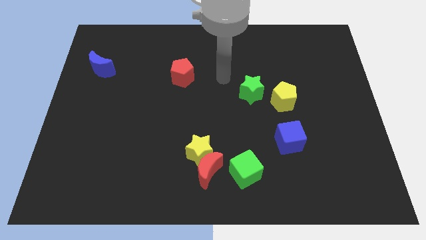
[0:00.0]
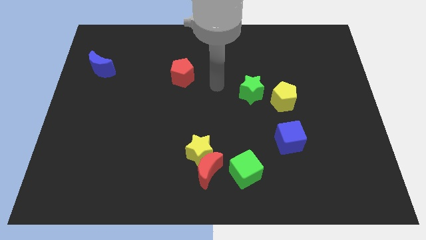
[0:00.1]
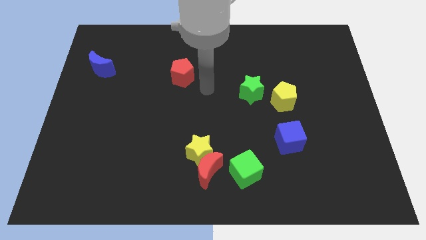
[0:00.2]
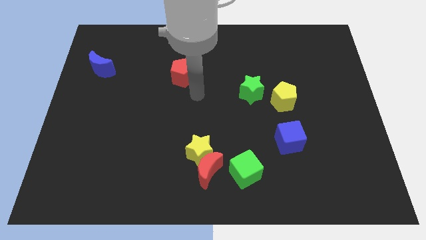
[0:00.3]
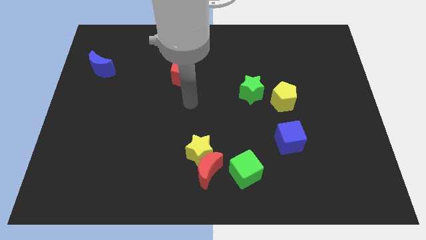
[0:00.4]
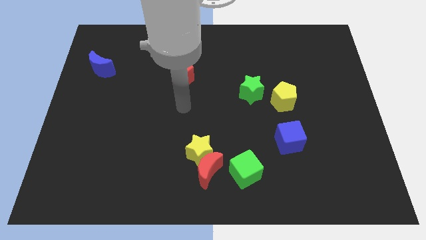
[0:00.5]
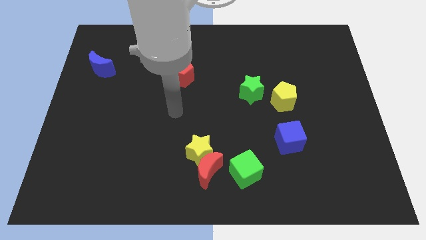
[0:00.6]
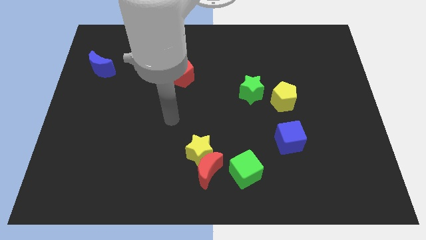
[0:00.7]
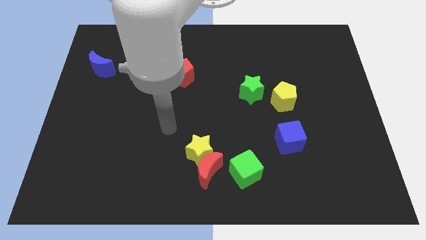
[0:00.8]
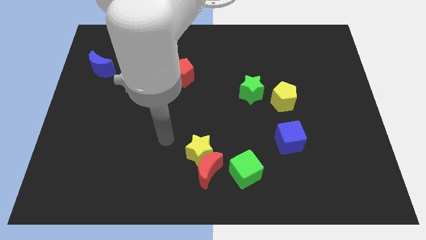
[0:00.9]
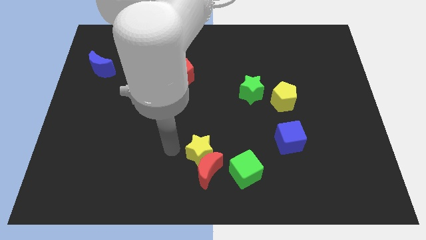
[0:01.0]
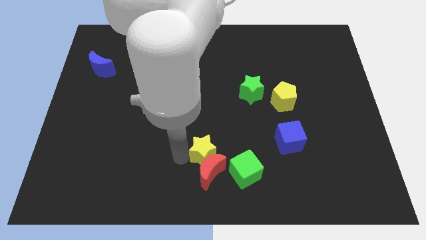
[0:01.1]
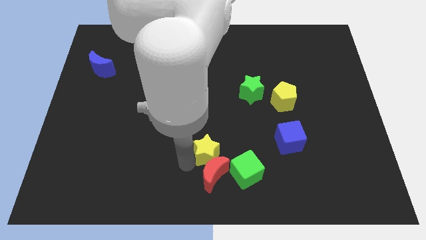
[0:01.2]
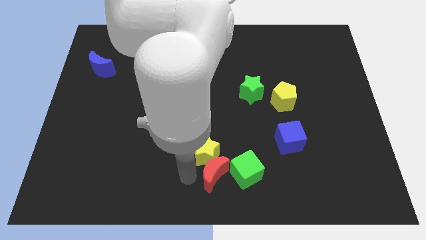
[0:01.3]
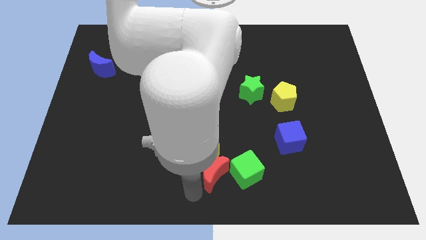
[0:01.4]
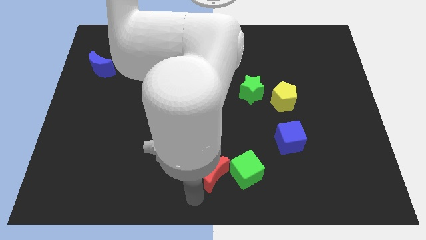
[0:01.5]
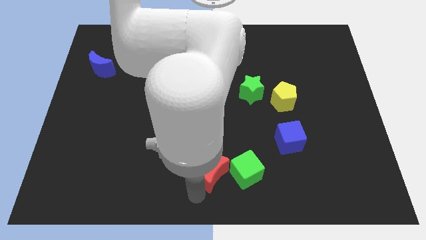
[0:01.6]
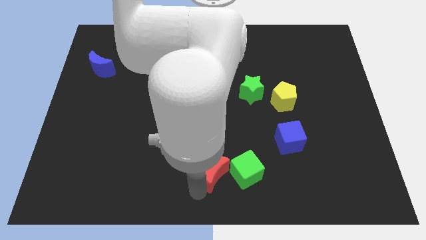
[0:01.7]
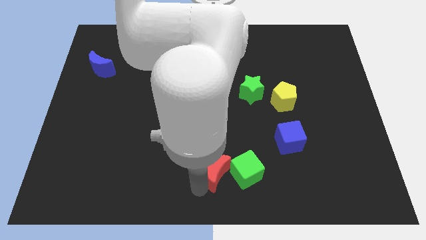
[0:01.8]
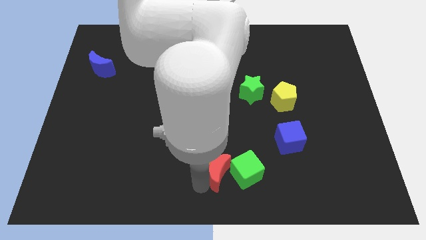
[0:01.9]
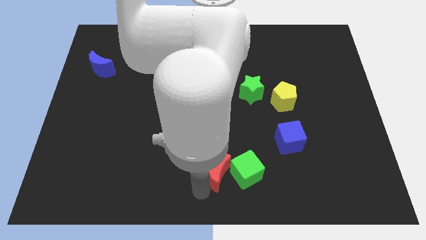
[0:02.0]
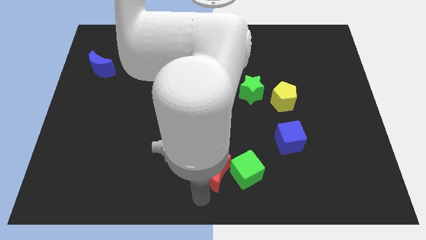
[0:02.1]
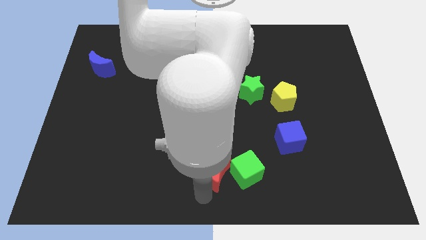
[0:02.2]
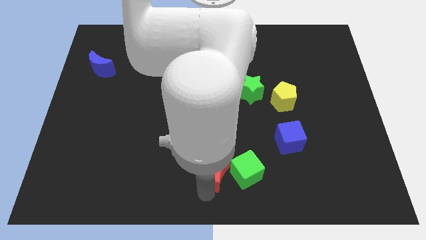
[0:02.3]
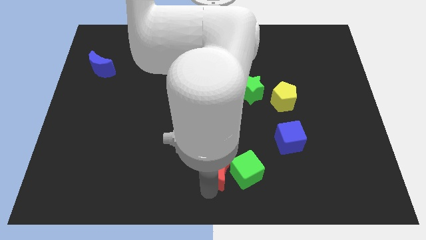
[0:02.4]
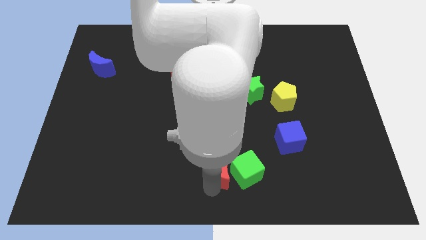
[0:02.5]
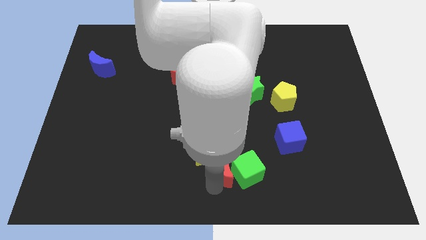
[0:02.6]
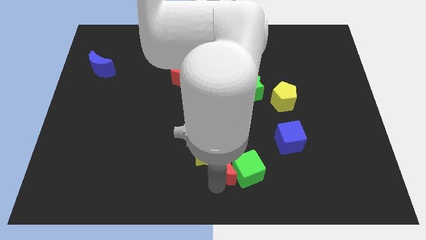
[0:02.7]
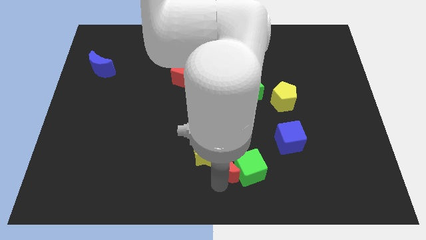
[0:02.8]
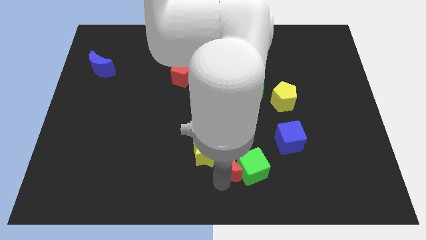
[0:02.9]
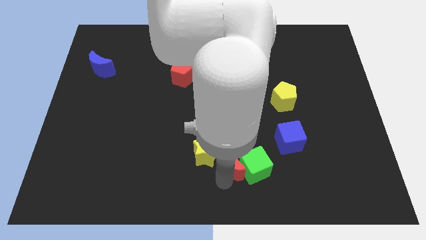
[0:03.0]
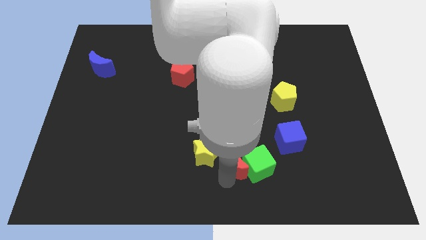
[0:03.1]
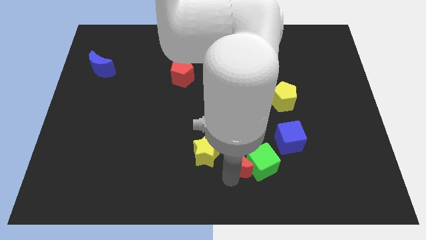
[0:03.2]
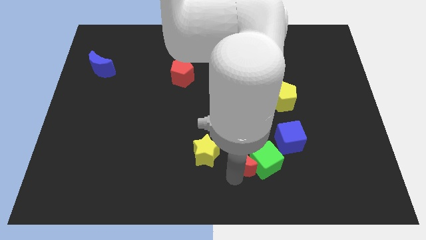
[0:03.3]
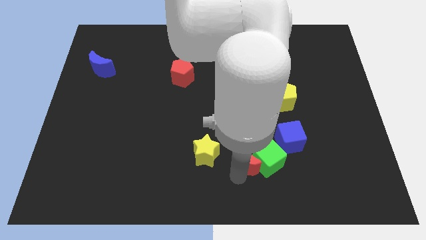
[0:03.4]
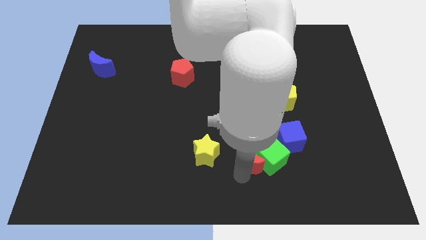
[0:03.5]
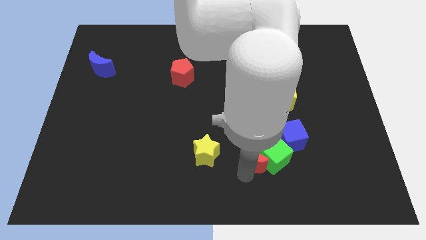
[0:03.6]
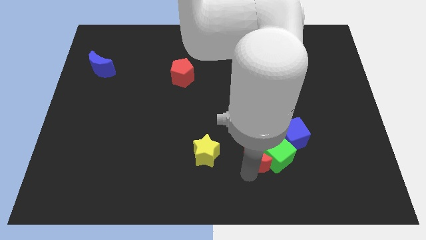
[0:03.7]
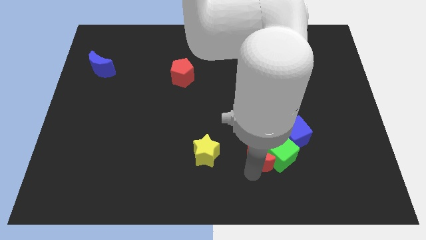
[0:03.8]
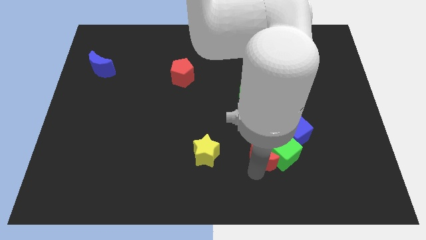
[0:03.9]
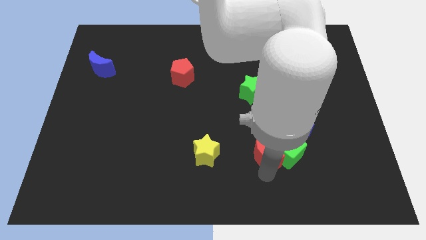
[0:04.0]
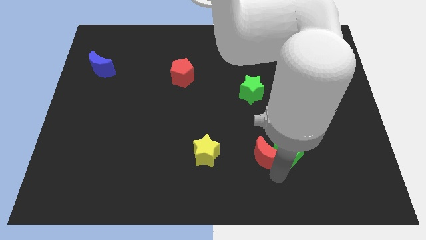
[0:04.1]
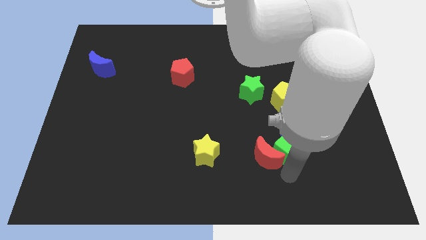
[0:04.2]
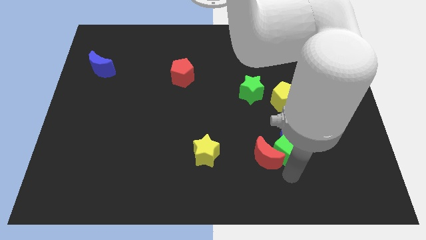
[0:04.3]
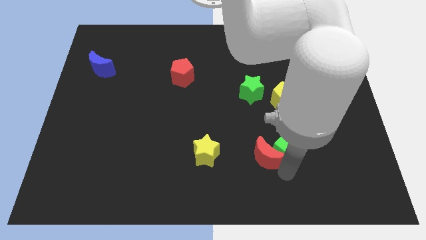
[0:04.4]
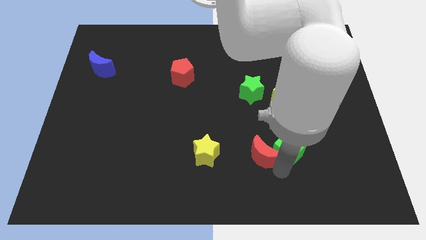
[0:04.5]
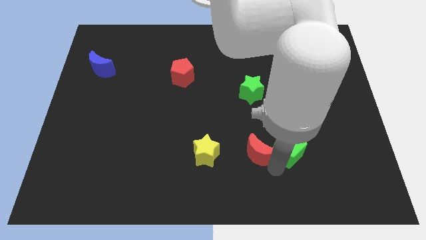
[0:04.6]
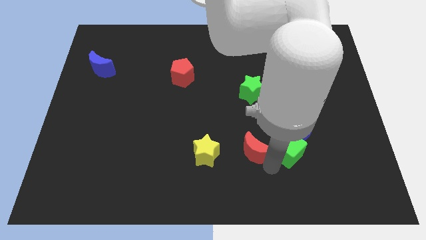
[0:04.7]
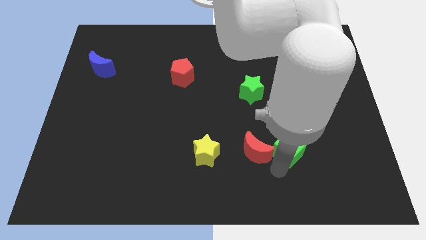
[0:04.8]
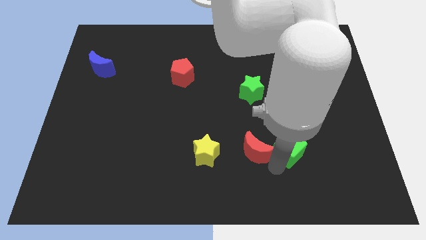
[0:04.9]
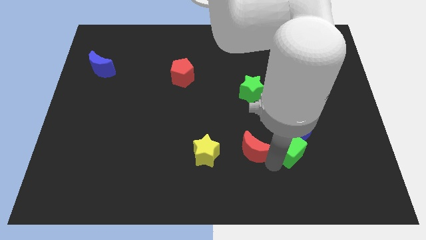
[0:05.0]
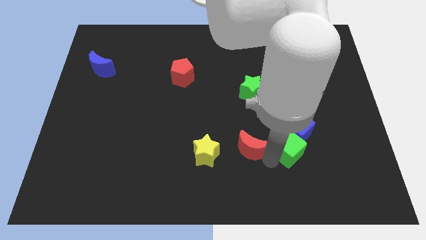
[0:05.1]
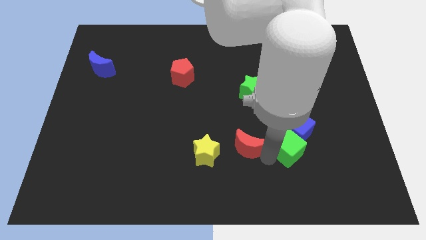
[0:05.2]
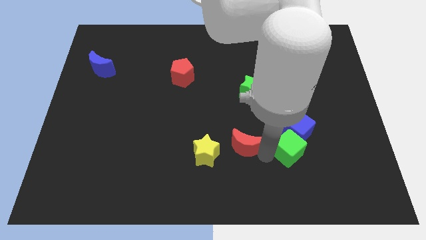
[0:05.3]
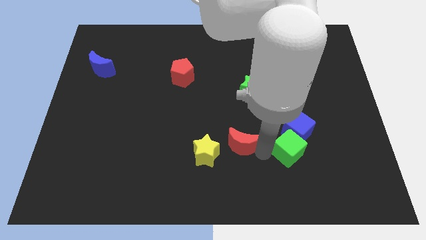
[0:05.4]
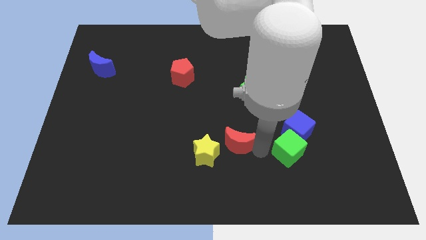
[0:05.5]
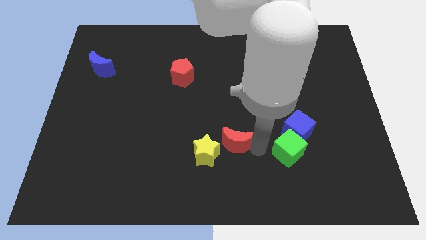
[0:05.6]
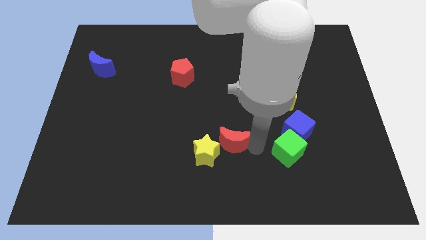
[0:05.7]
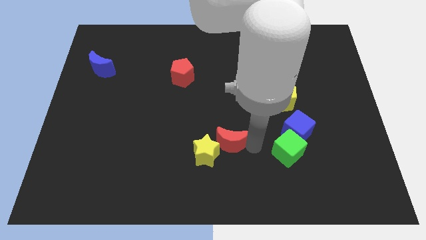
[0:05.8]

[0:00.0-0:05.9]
put the red moon to the middle

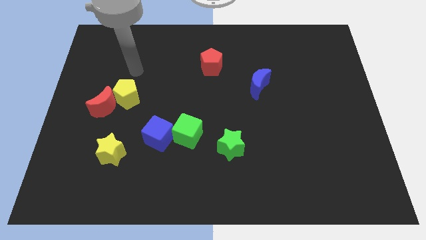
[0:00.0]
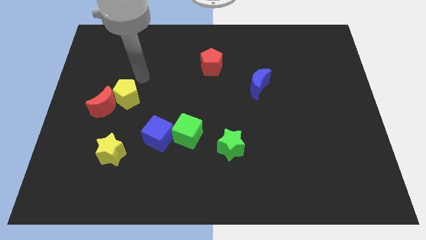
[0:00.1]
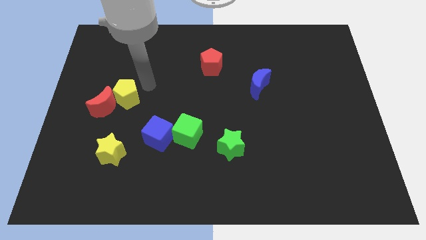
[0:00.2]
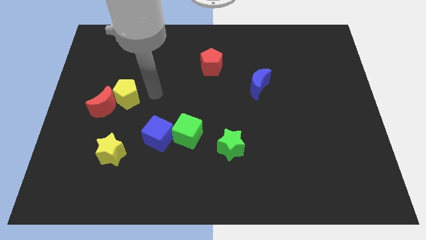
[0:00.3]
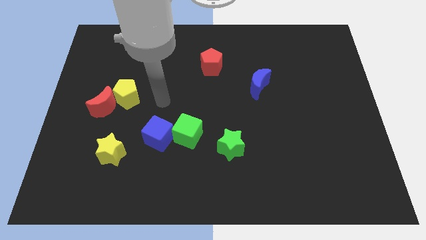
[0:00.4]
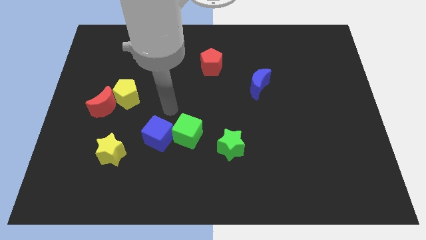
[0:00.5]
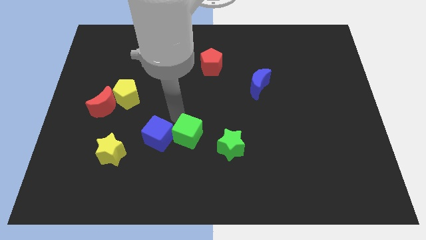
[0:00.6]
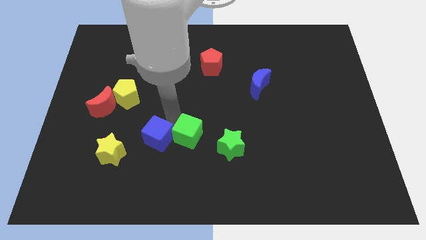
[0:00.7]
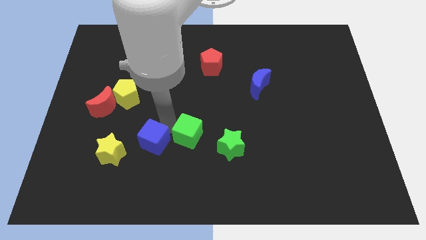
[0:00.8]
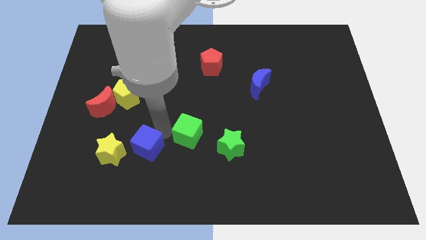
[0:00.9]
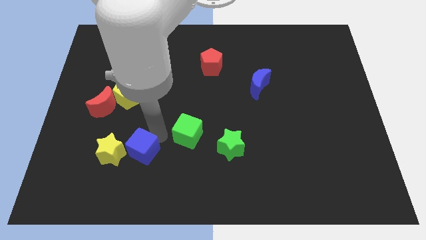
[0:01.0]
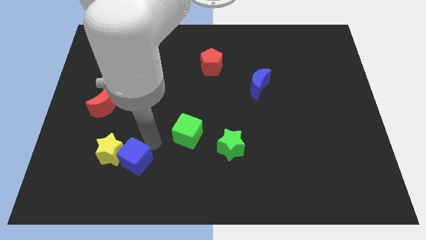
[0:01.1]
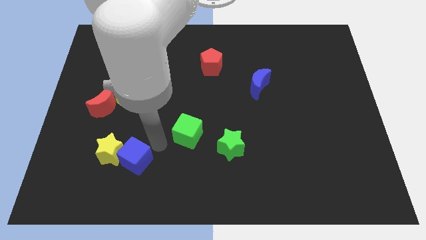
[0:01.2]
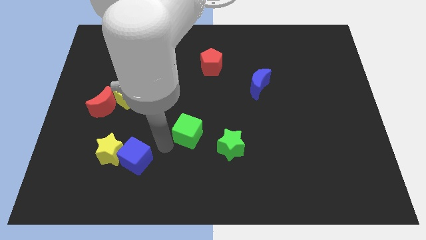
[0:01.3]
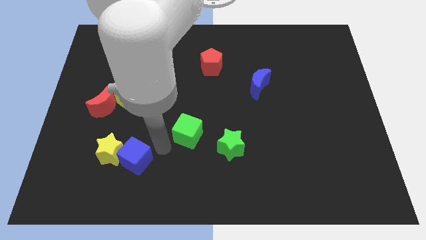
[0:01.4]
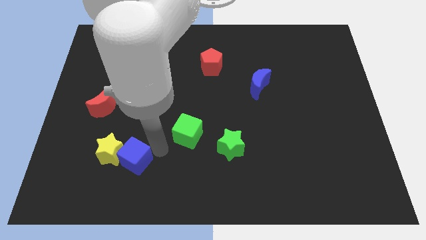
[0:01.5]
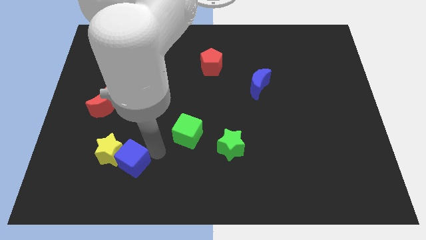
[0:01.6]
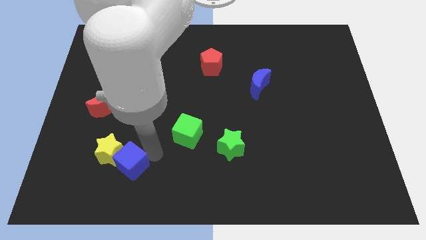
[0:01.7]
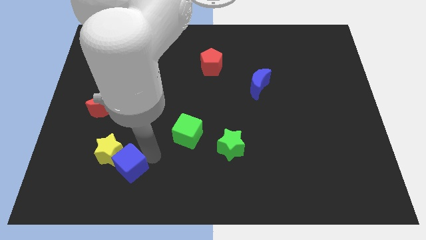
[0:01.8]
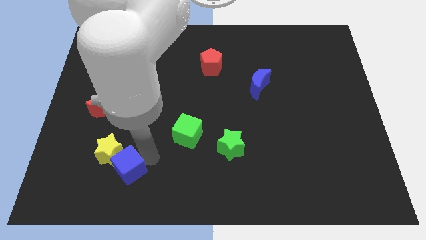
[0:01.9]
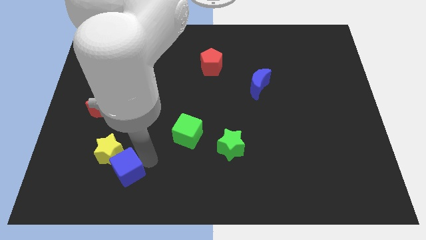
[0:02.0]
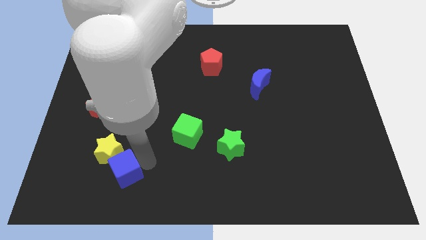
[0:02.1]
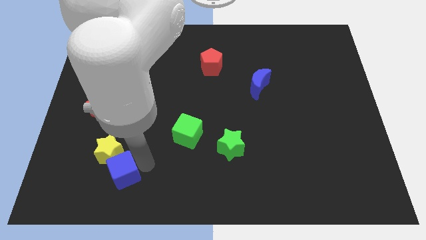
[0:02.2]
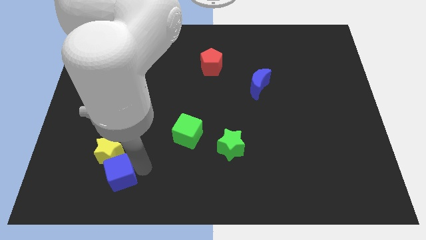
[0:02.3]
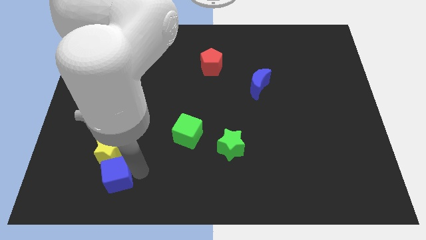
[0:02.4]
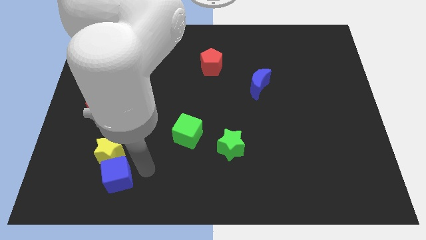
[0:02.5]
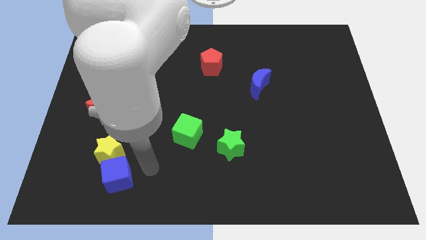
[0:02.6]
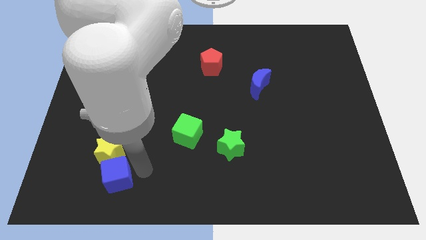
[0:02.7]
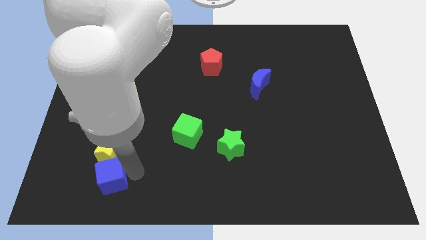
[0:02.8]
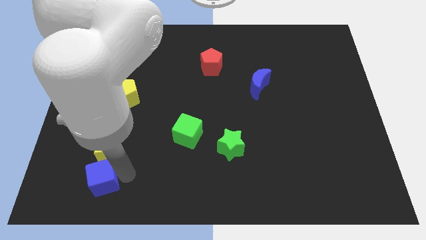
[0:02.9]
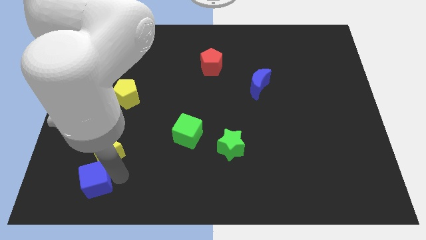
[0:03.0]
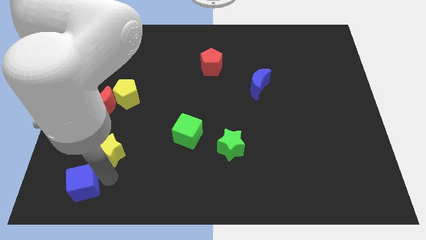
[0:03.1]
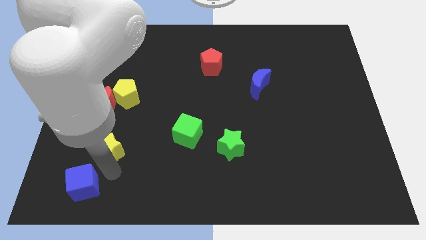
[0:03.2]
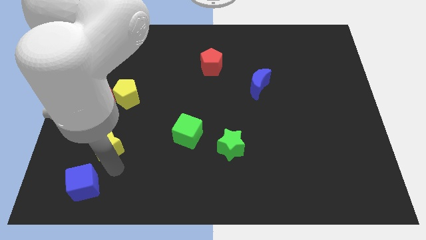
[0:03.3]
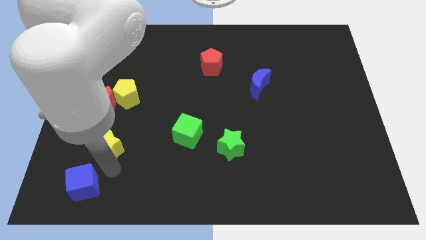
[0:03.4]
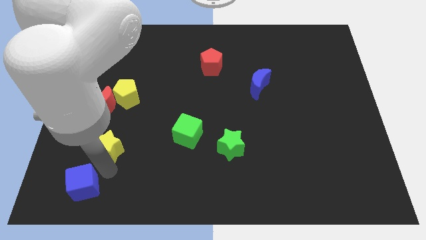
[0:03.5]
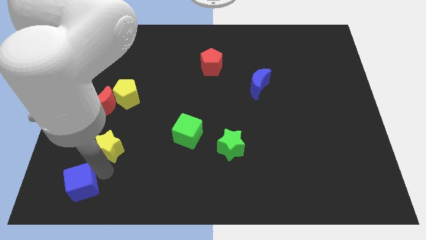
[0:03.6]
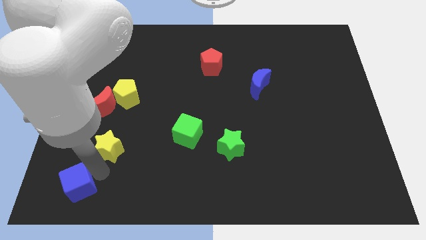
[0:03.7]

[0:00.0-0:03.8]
move the blue cube to the lower left corner
